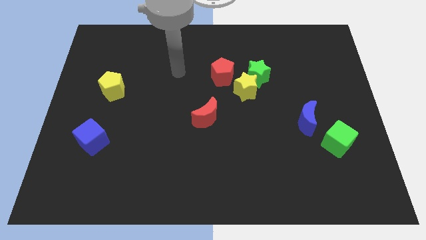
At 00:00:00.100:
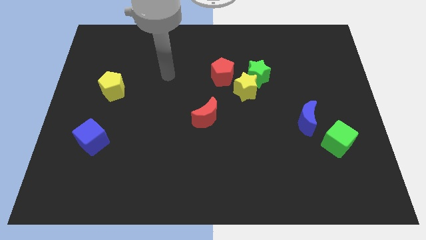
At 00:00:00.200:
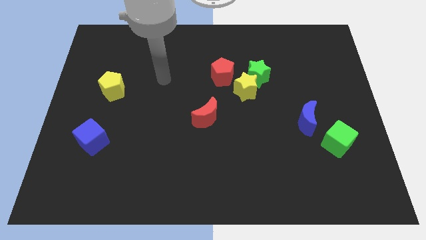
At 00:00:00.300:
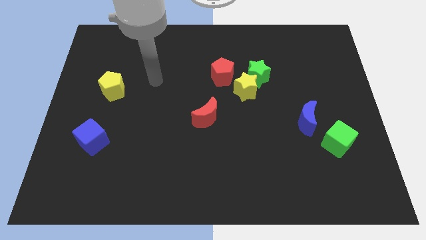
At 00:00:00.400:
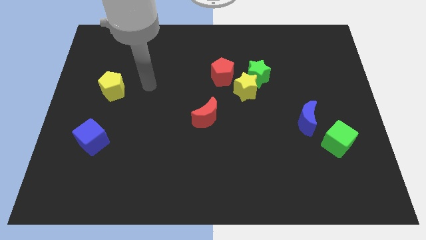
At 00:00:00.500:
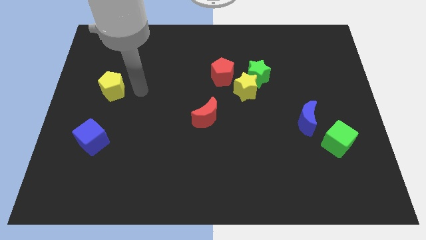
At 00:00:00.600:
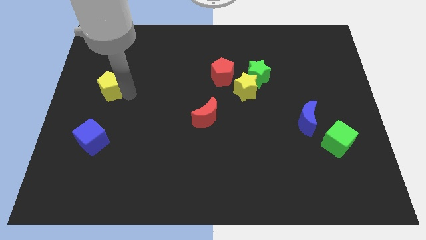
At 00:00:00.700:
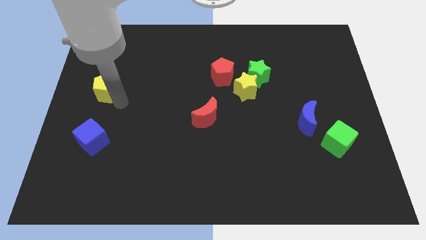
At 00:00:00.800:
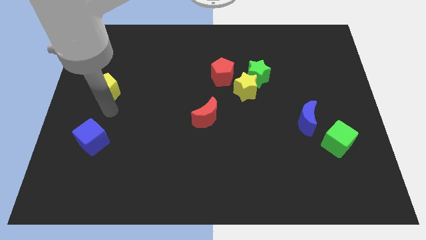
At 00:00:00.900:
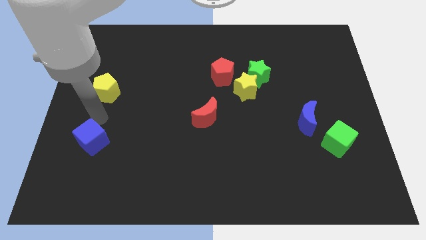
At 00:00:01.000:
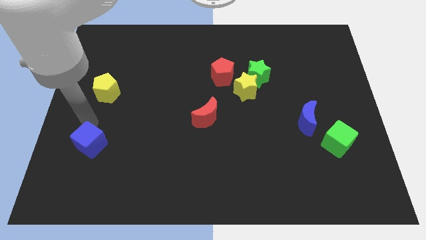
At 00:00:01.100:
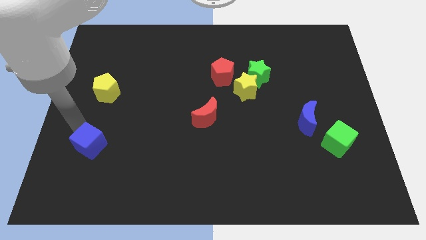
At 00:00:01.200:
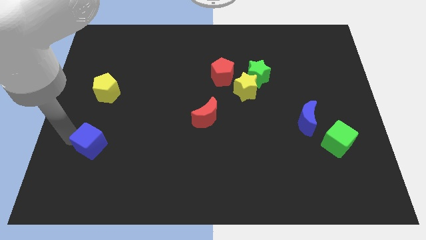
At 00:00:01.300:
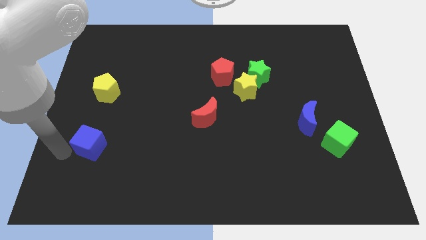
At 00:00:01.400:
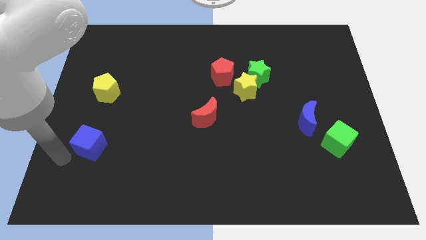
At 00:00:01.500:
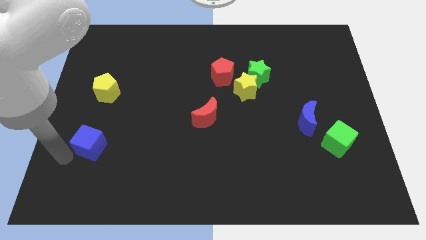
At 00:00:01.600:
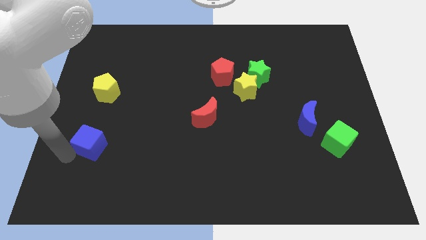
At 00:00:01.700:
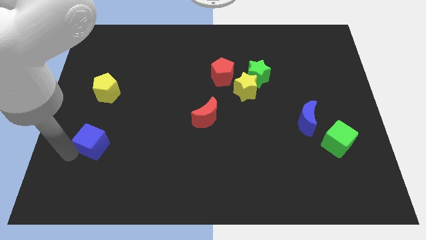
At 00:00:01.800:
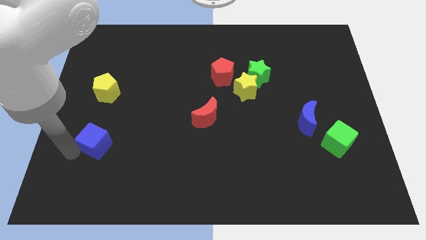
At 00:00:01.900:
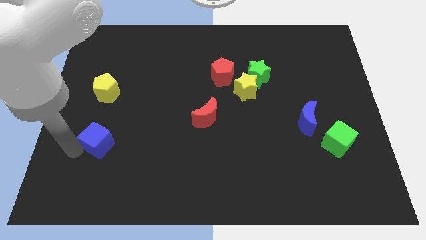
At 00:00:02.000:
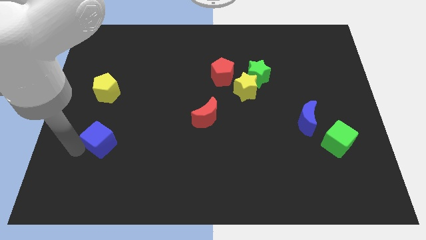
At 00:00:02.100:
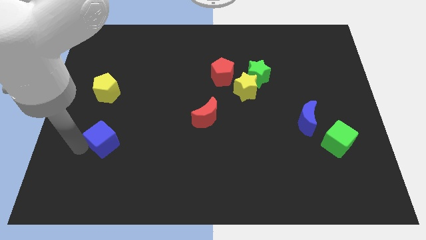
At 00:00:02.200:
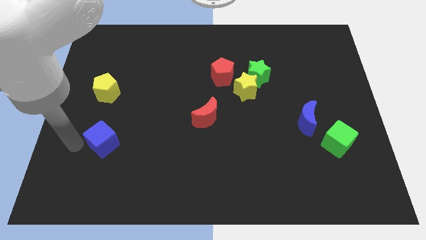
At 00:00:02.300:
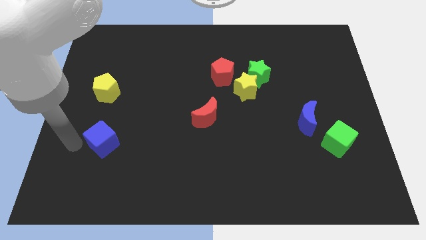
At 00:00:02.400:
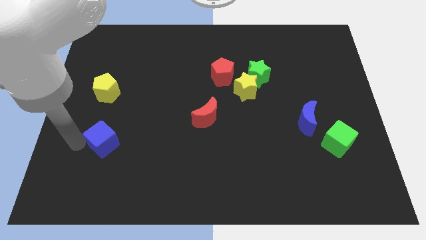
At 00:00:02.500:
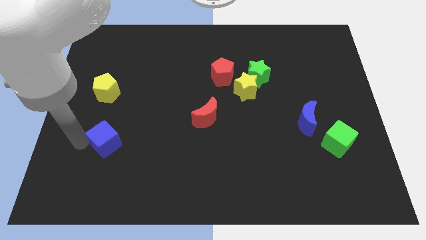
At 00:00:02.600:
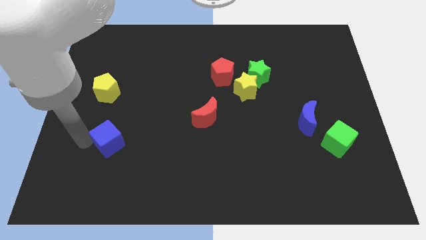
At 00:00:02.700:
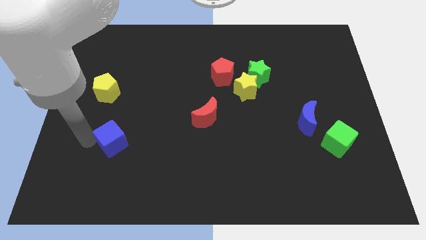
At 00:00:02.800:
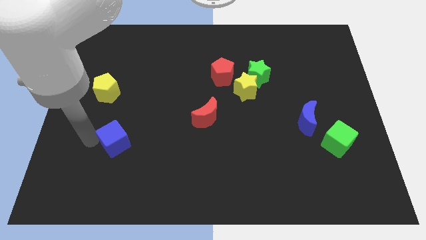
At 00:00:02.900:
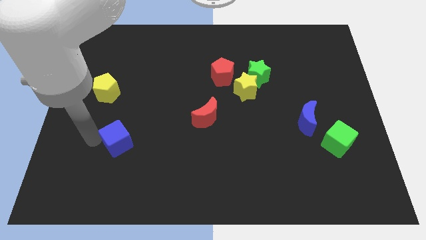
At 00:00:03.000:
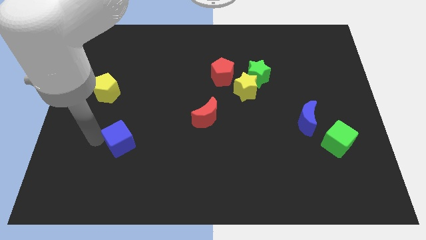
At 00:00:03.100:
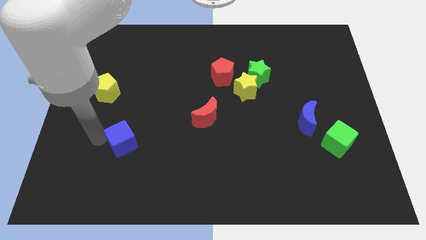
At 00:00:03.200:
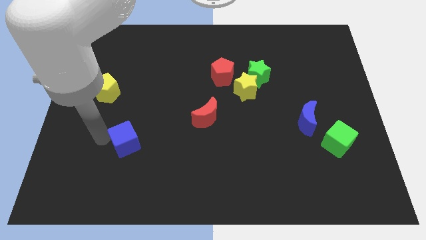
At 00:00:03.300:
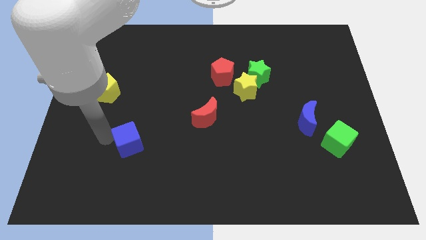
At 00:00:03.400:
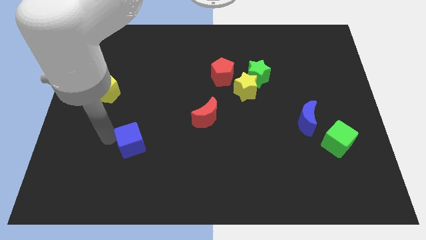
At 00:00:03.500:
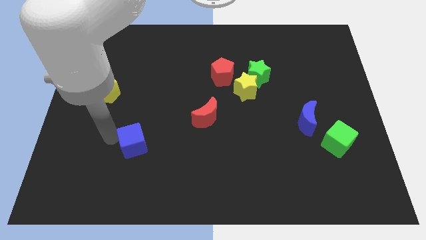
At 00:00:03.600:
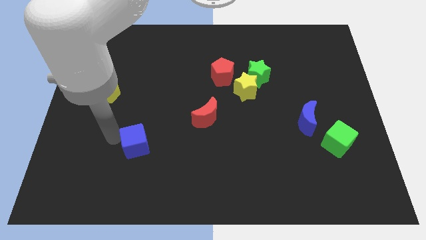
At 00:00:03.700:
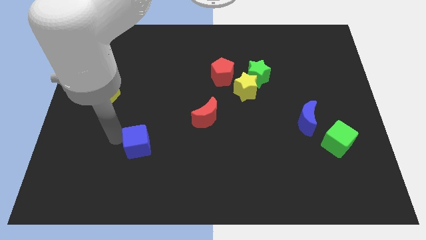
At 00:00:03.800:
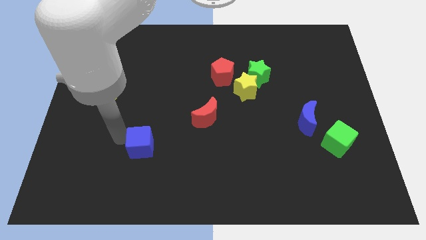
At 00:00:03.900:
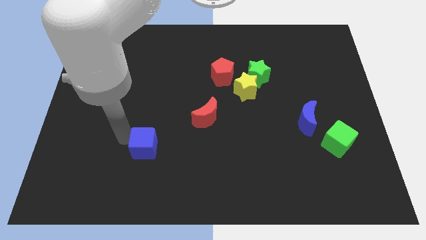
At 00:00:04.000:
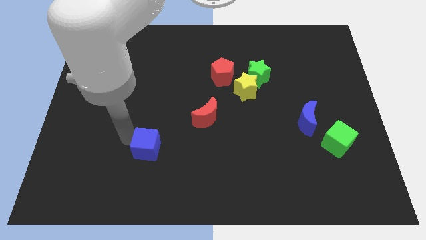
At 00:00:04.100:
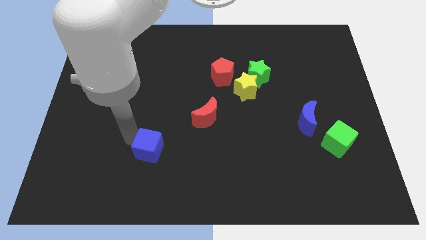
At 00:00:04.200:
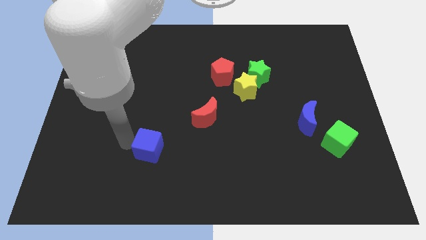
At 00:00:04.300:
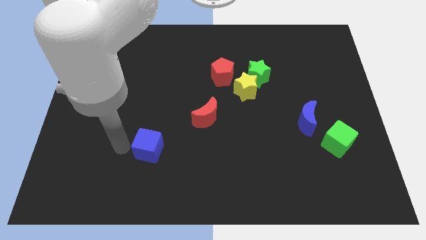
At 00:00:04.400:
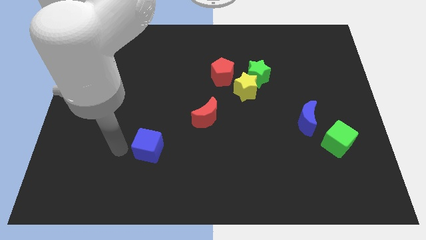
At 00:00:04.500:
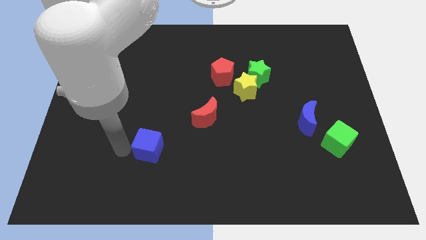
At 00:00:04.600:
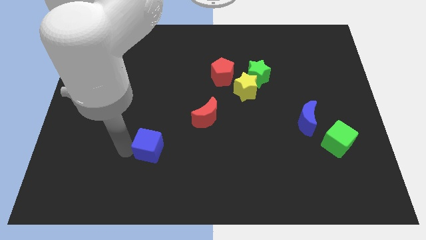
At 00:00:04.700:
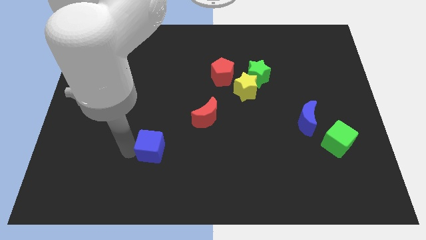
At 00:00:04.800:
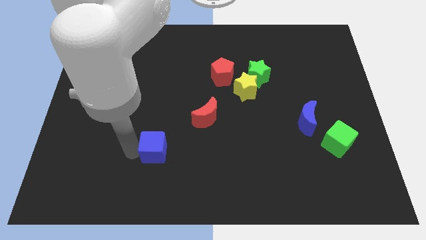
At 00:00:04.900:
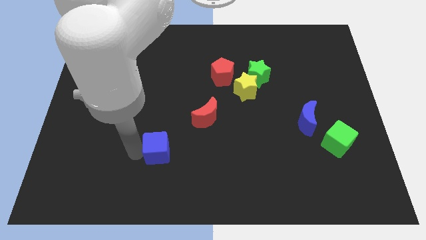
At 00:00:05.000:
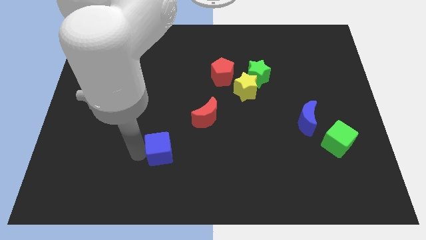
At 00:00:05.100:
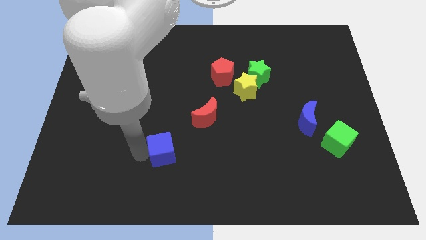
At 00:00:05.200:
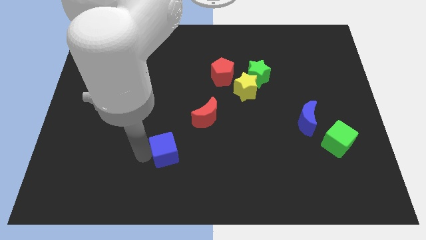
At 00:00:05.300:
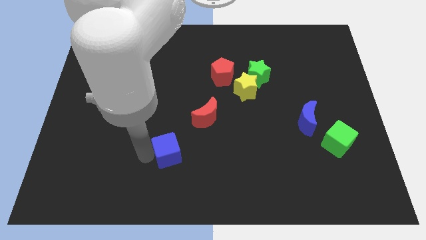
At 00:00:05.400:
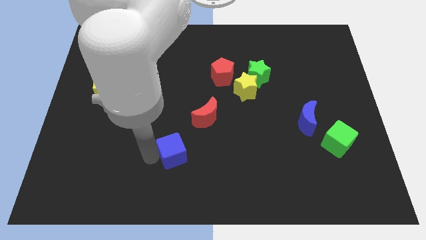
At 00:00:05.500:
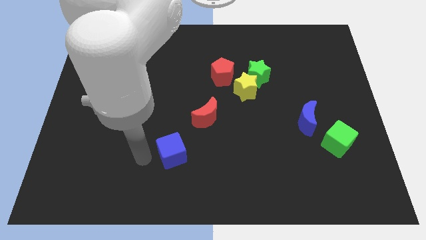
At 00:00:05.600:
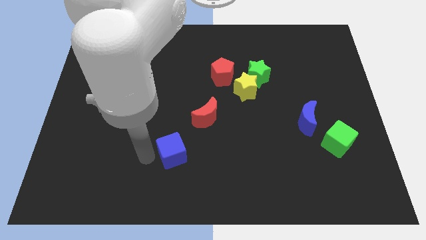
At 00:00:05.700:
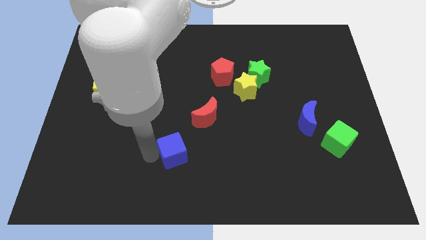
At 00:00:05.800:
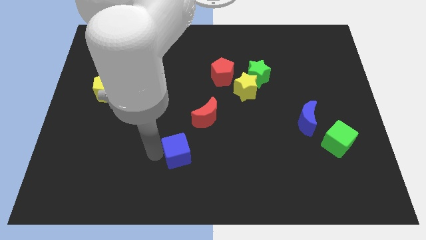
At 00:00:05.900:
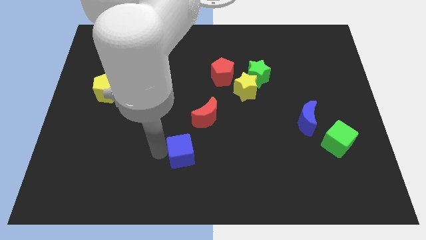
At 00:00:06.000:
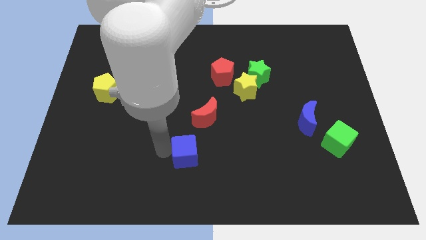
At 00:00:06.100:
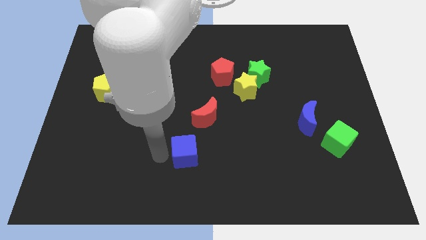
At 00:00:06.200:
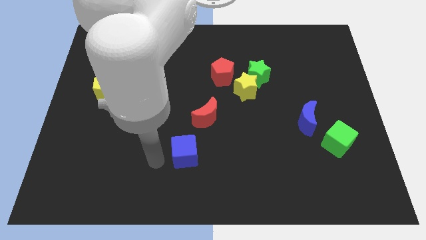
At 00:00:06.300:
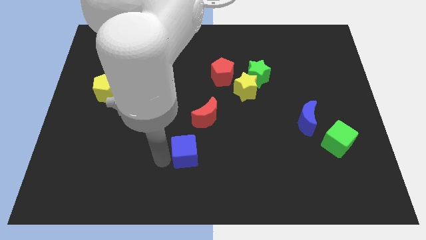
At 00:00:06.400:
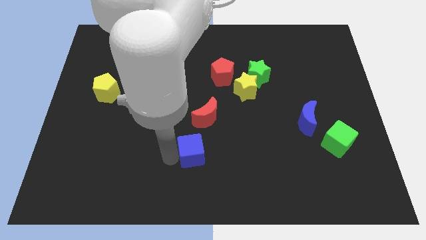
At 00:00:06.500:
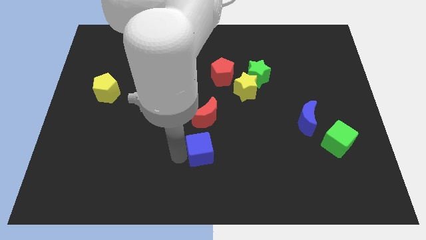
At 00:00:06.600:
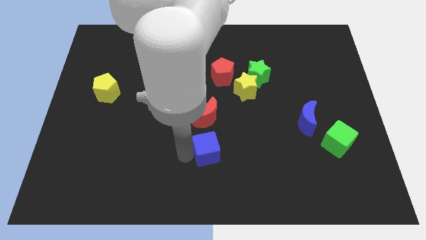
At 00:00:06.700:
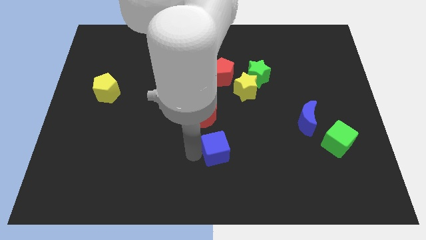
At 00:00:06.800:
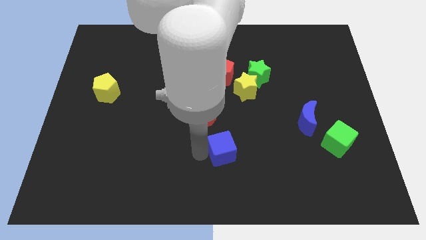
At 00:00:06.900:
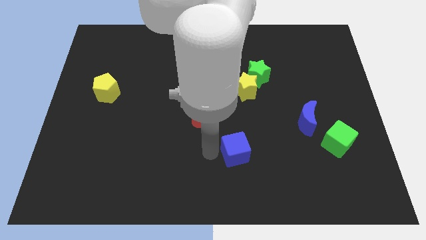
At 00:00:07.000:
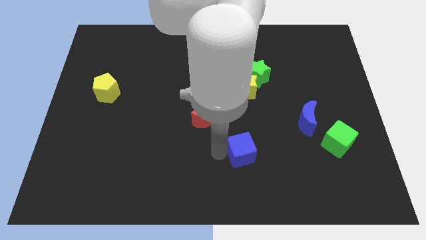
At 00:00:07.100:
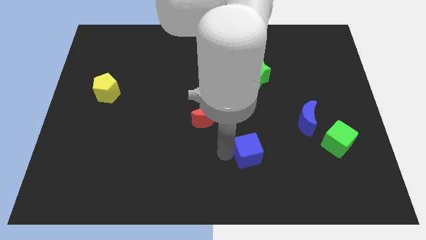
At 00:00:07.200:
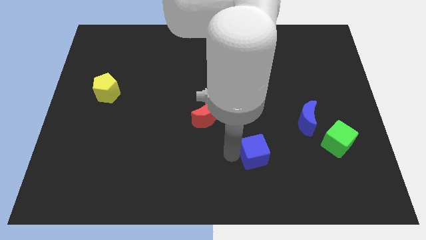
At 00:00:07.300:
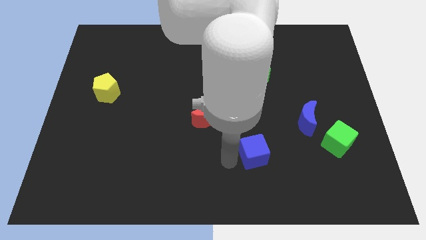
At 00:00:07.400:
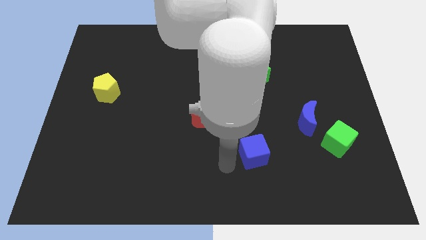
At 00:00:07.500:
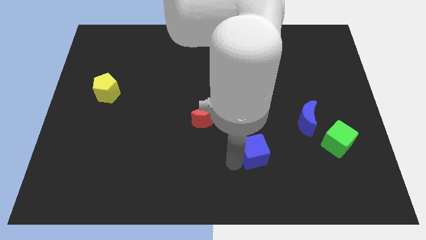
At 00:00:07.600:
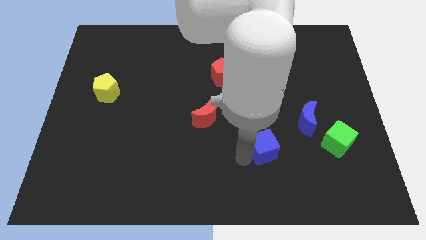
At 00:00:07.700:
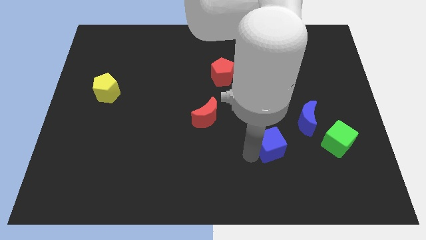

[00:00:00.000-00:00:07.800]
move the blue cube to the bottom left of the blue moon

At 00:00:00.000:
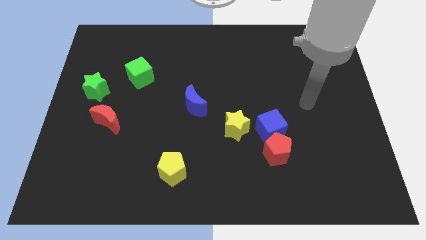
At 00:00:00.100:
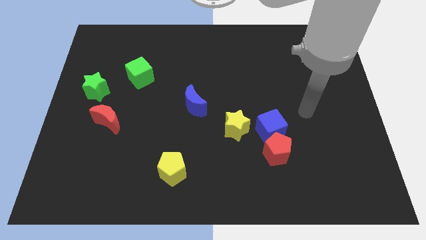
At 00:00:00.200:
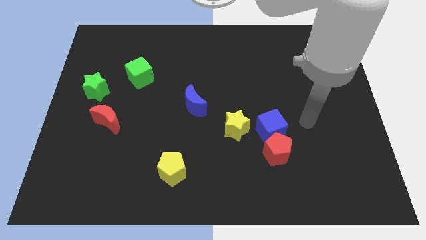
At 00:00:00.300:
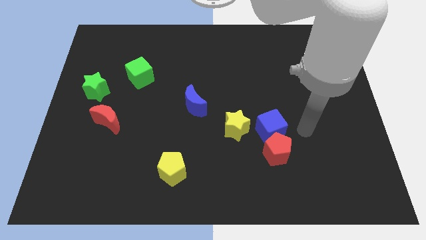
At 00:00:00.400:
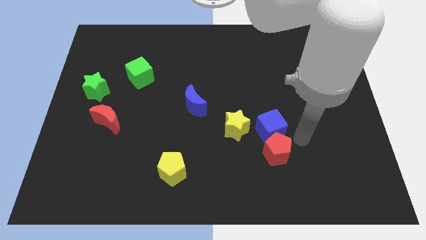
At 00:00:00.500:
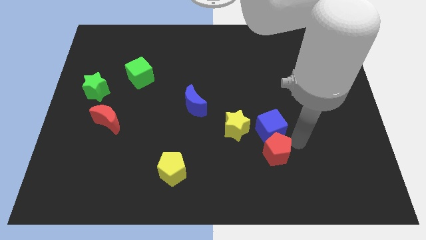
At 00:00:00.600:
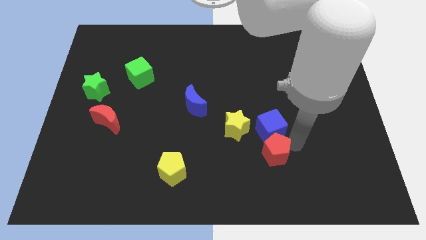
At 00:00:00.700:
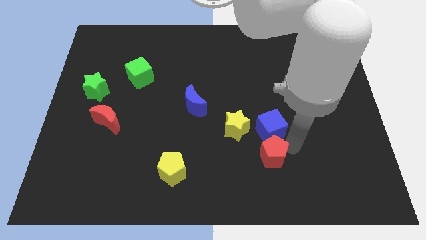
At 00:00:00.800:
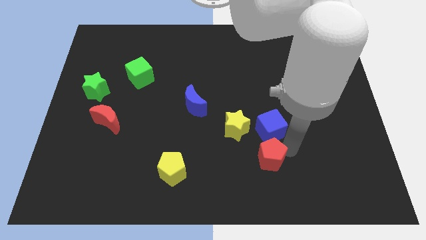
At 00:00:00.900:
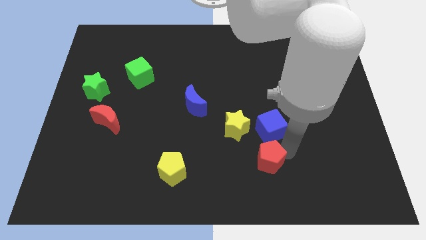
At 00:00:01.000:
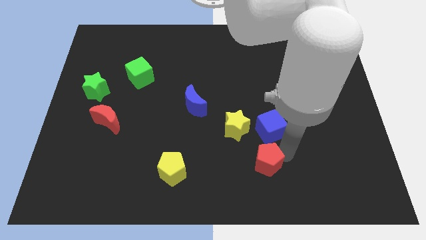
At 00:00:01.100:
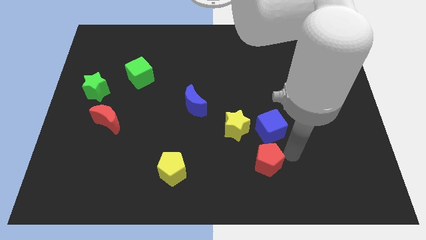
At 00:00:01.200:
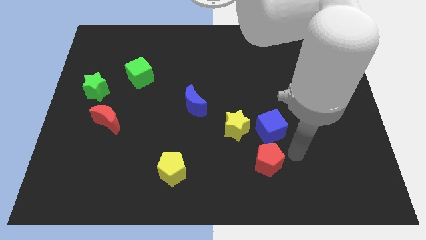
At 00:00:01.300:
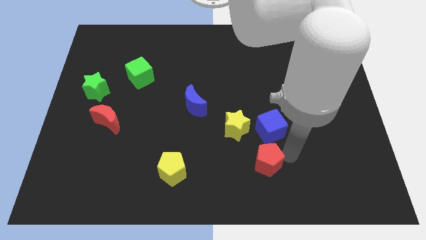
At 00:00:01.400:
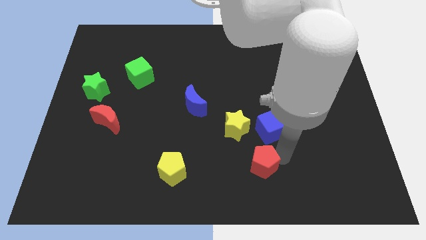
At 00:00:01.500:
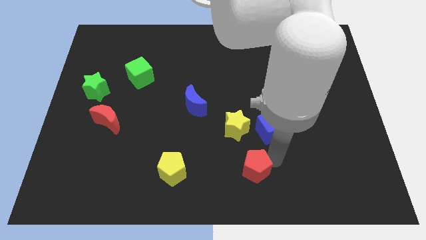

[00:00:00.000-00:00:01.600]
move the red pentagon to the bottom of the yellow star
